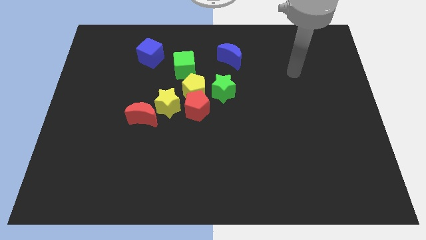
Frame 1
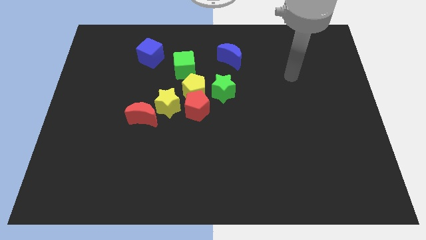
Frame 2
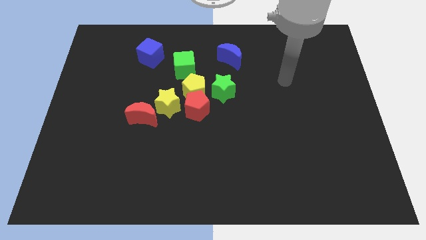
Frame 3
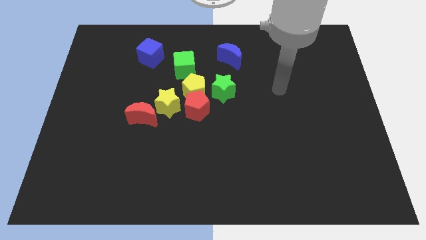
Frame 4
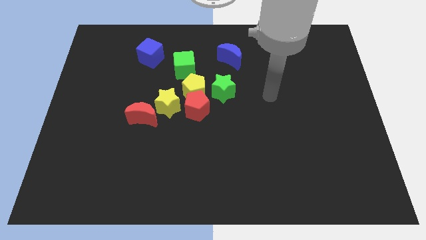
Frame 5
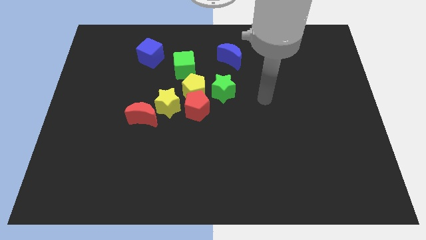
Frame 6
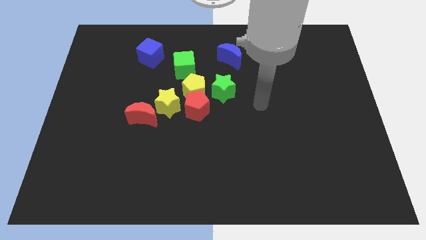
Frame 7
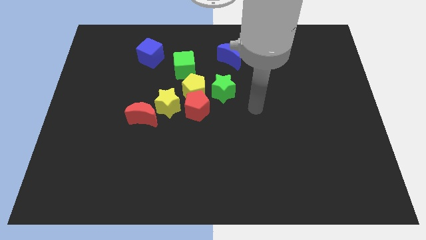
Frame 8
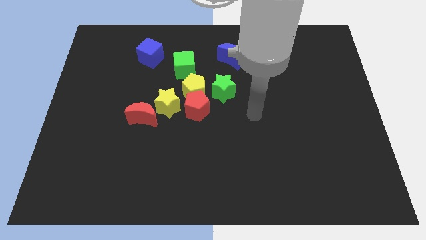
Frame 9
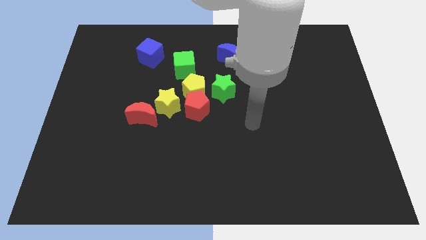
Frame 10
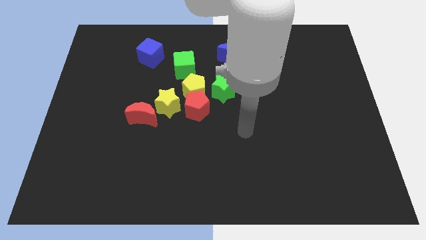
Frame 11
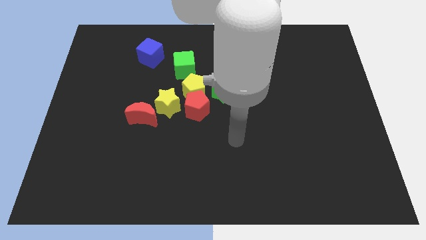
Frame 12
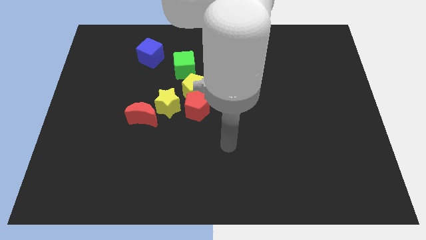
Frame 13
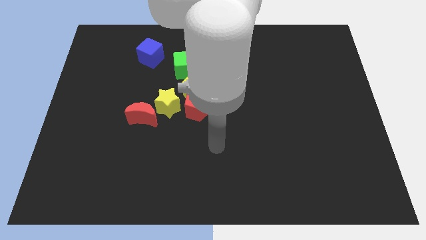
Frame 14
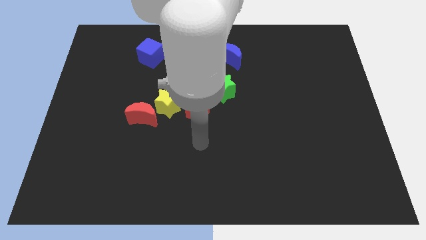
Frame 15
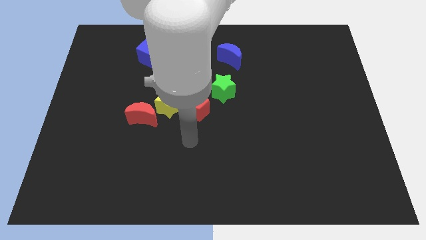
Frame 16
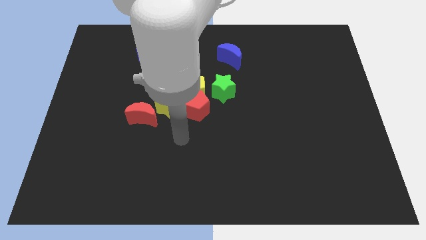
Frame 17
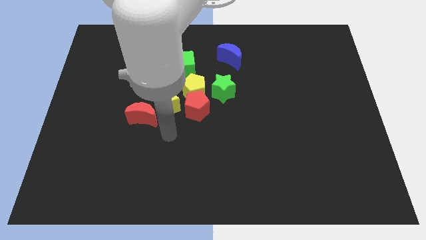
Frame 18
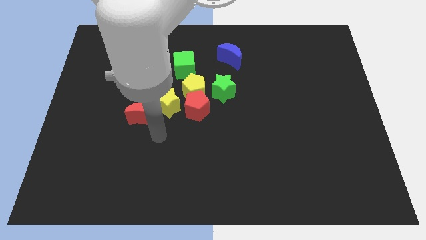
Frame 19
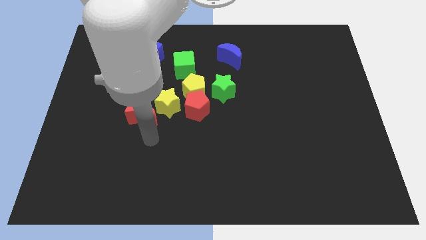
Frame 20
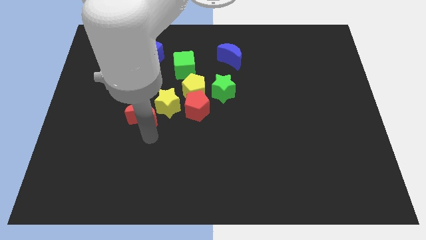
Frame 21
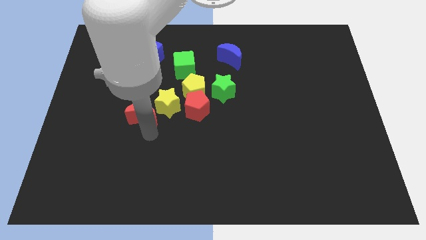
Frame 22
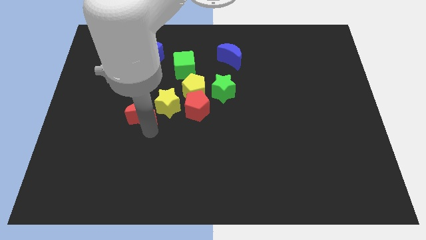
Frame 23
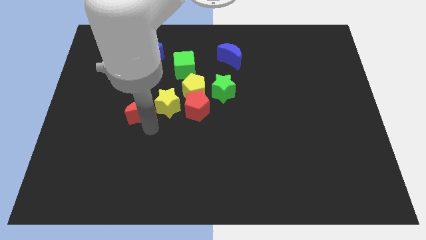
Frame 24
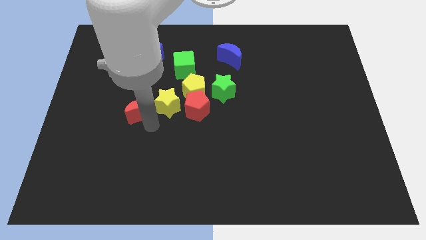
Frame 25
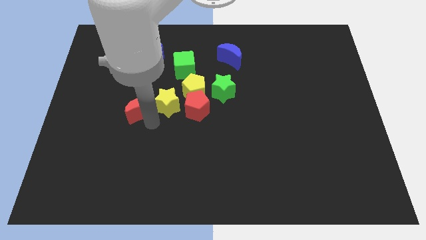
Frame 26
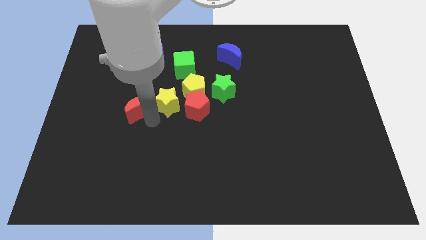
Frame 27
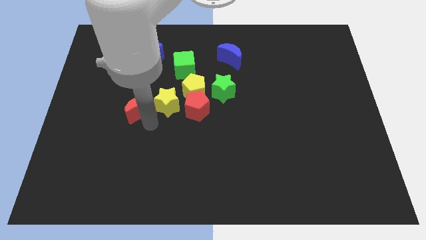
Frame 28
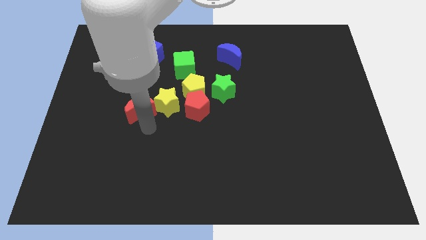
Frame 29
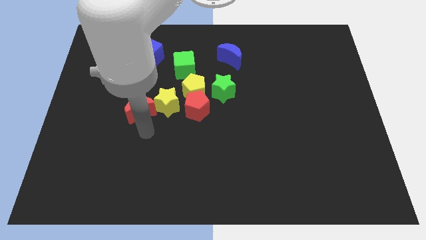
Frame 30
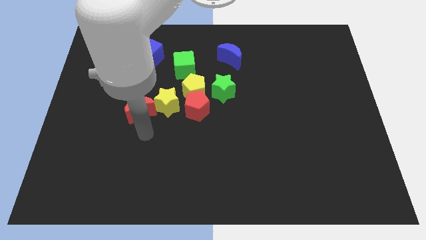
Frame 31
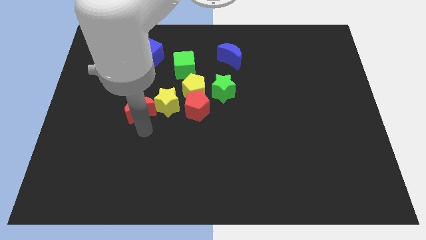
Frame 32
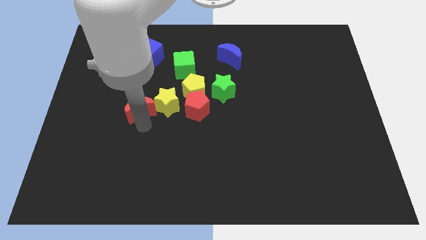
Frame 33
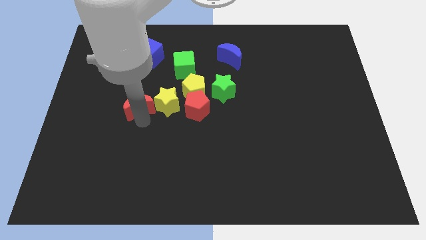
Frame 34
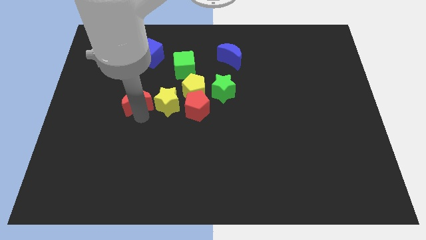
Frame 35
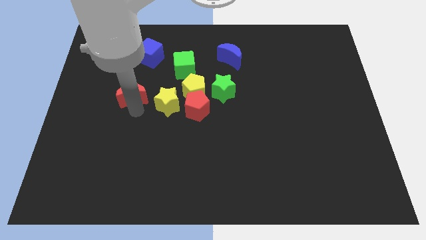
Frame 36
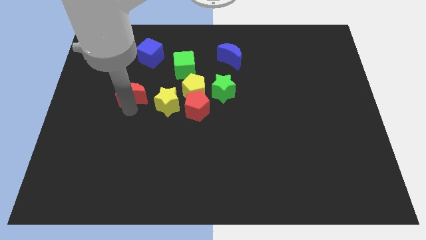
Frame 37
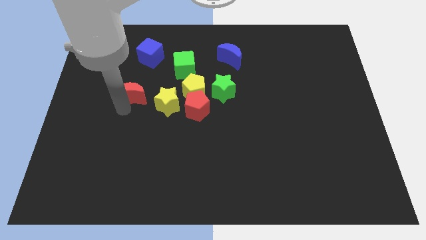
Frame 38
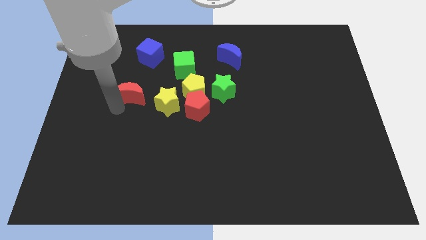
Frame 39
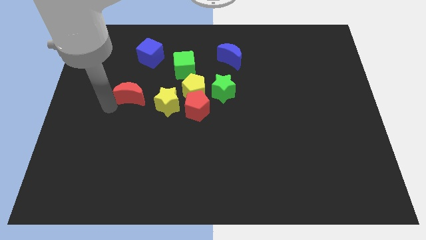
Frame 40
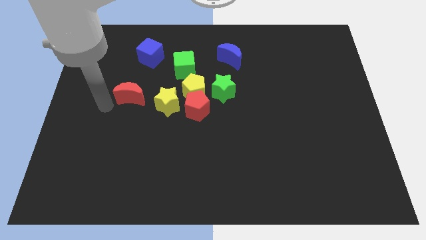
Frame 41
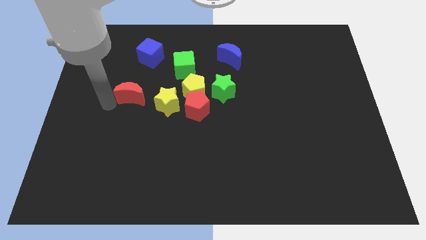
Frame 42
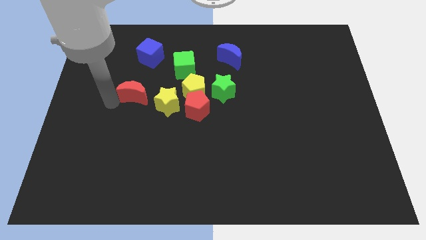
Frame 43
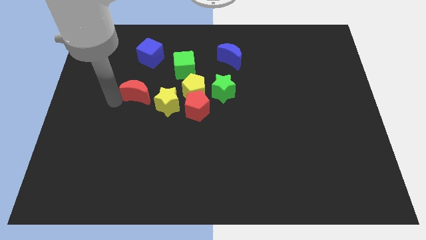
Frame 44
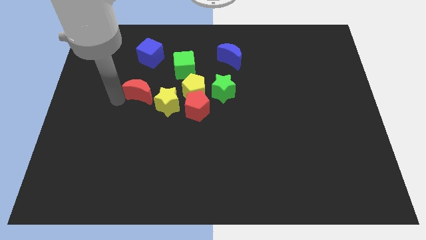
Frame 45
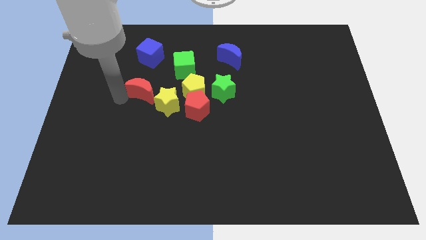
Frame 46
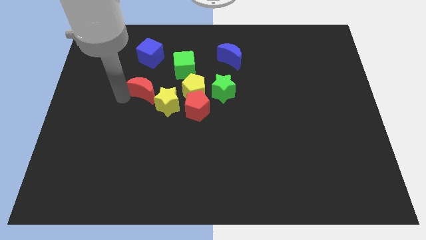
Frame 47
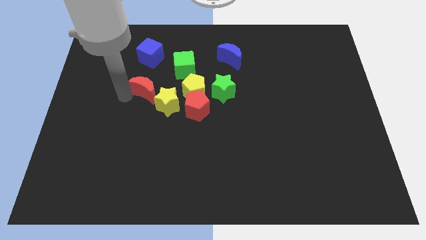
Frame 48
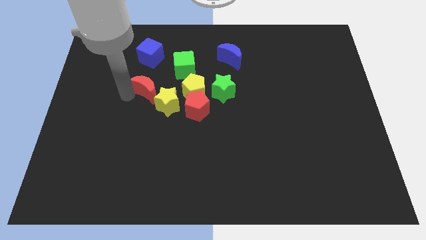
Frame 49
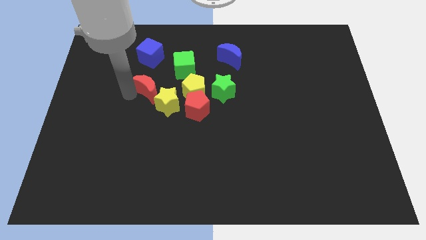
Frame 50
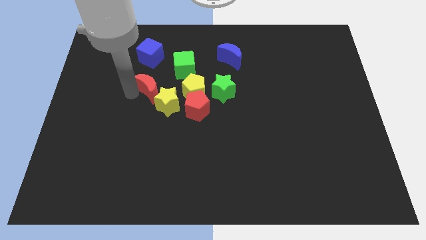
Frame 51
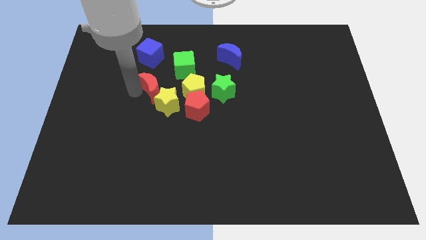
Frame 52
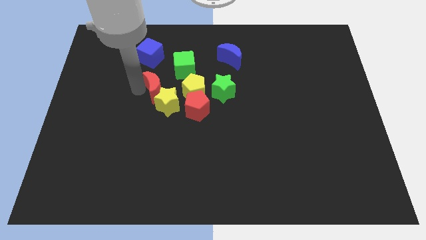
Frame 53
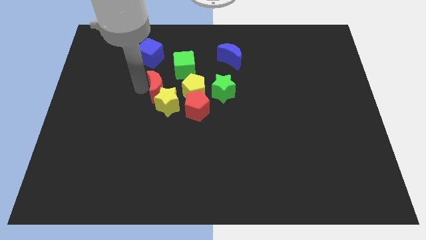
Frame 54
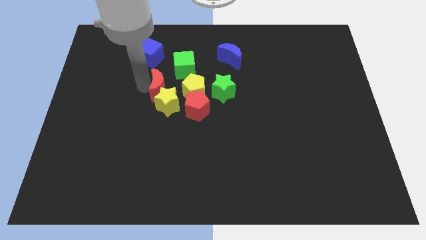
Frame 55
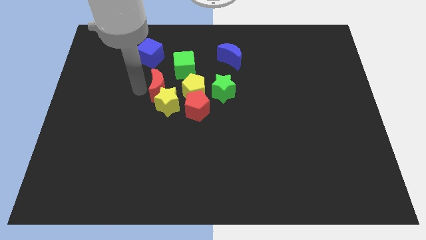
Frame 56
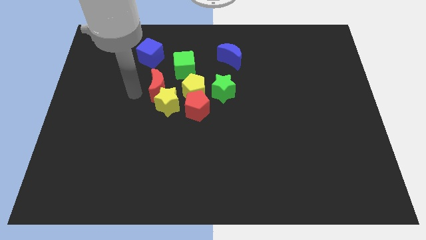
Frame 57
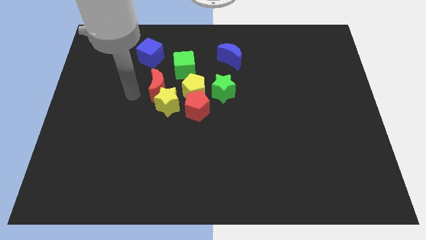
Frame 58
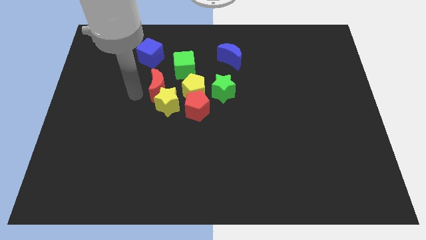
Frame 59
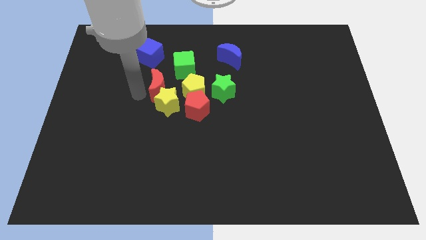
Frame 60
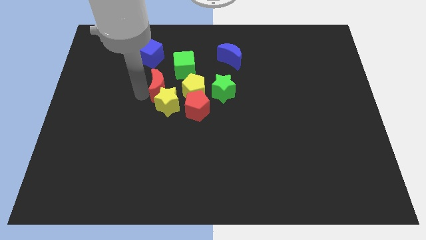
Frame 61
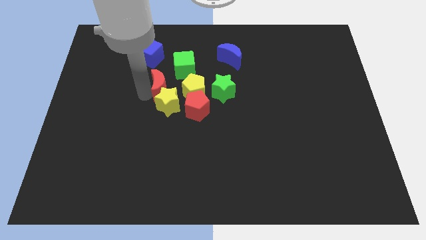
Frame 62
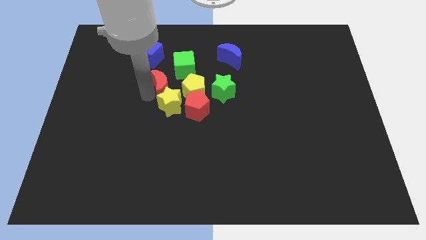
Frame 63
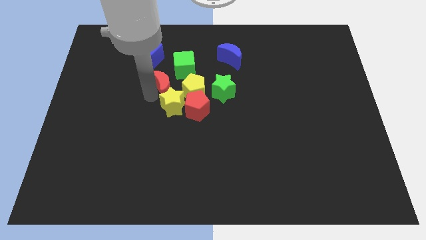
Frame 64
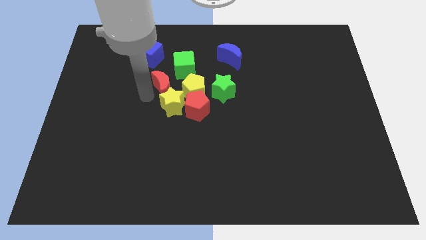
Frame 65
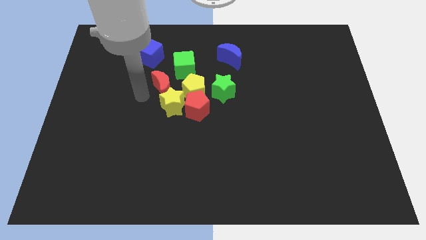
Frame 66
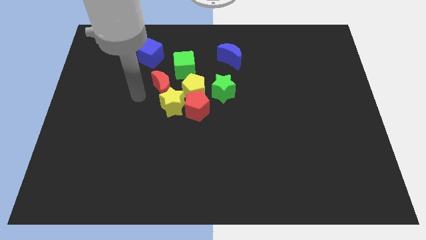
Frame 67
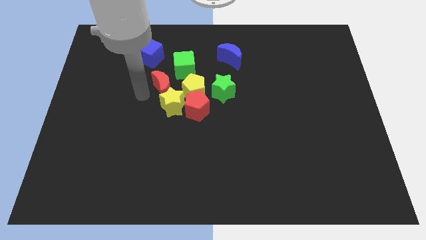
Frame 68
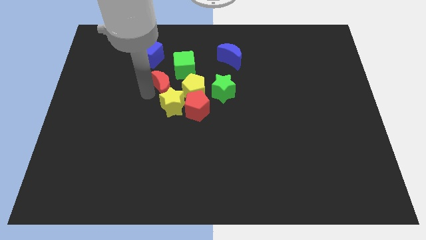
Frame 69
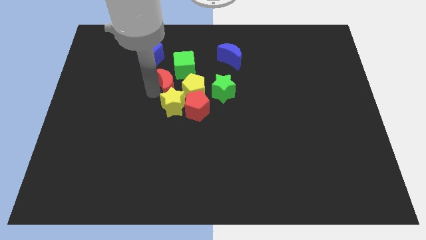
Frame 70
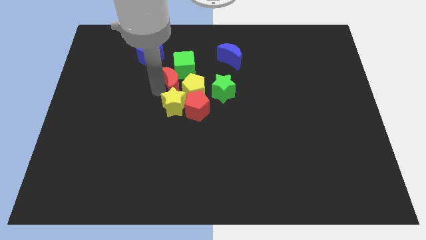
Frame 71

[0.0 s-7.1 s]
move the red moon to the top right side of the yellow star

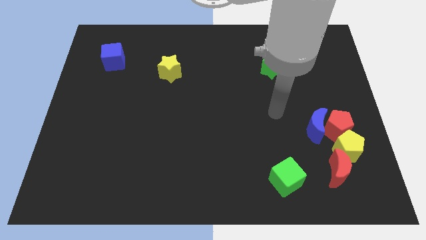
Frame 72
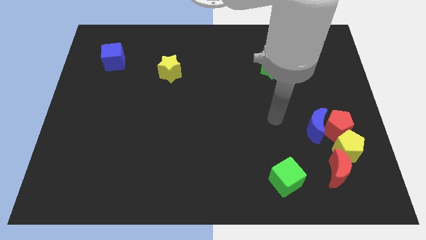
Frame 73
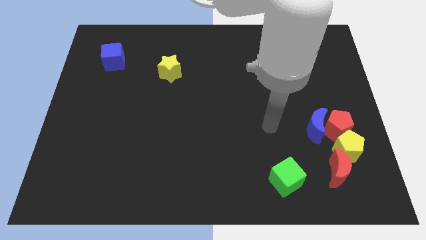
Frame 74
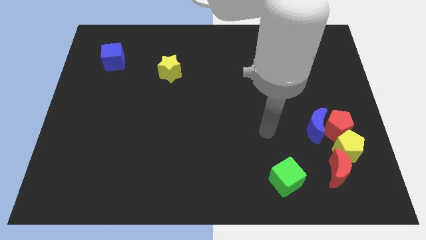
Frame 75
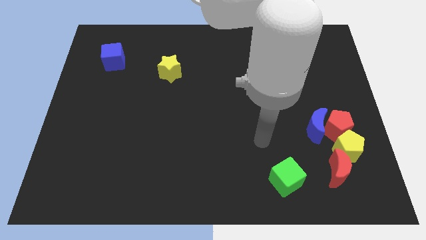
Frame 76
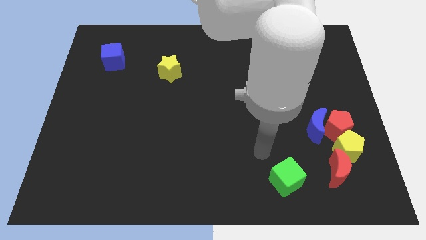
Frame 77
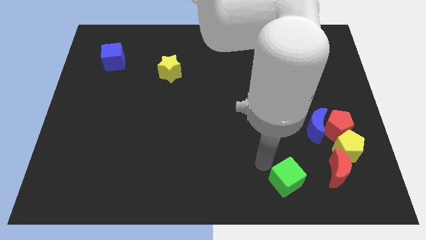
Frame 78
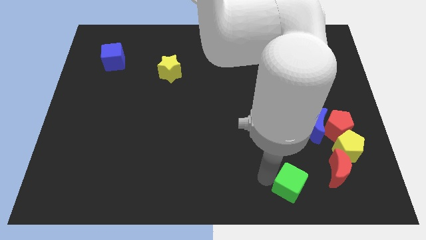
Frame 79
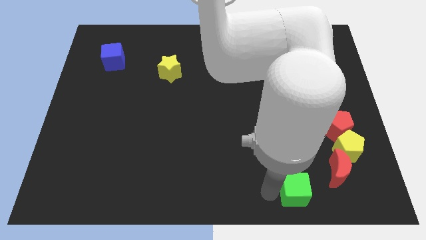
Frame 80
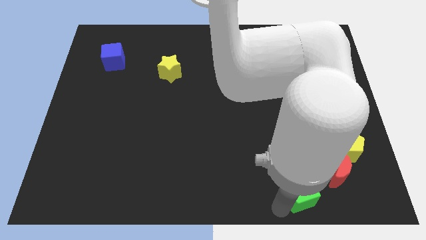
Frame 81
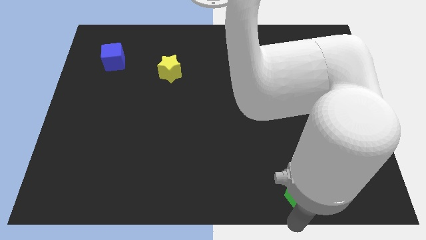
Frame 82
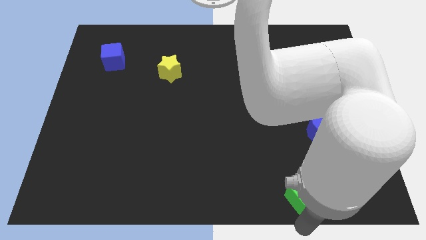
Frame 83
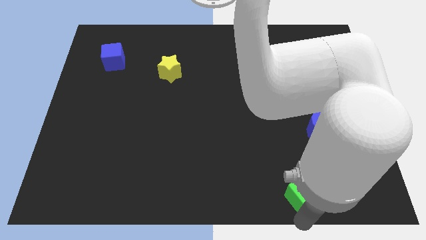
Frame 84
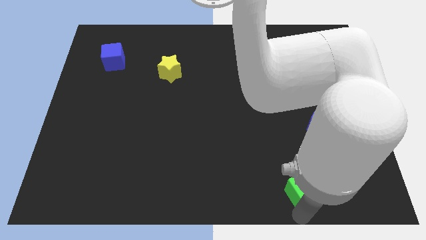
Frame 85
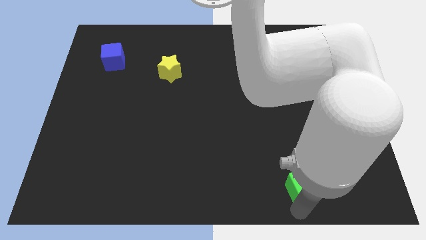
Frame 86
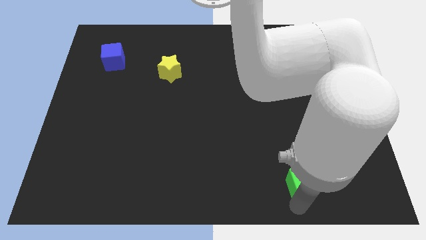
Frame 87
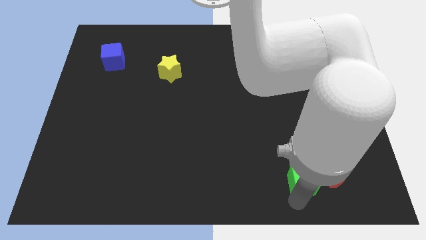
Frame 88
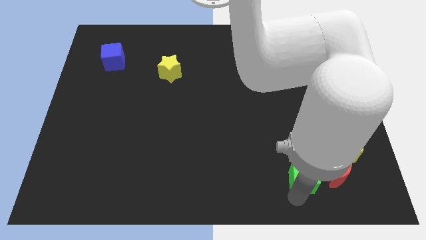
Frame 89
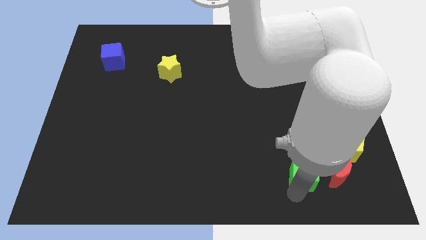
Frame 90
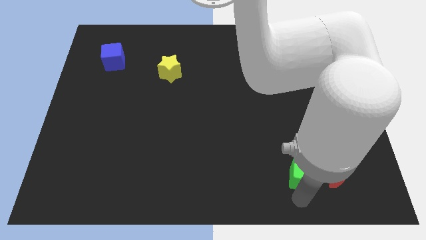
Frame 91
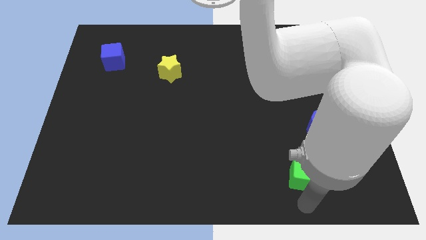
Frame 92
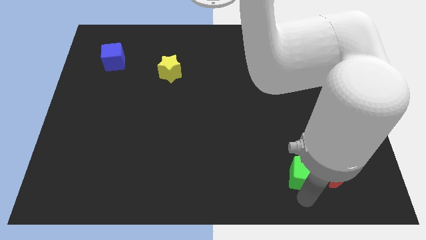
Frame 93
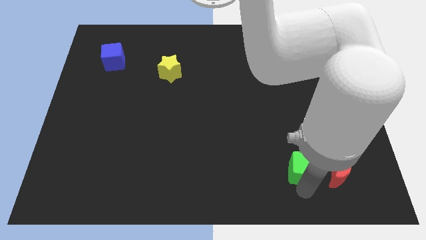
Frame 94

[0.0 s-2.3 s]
put the green cube left of the yellow pentagon
